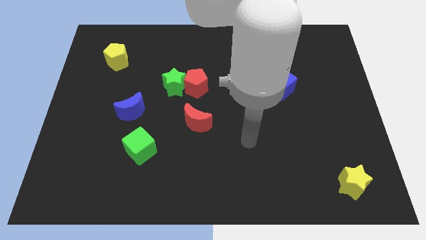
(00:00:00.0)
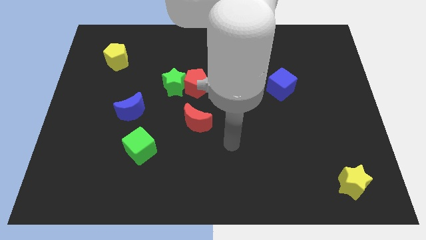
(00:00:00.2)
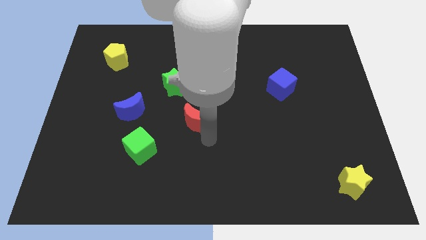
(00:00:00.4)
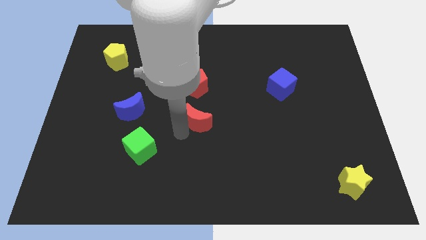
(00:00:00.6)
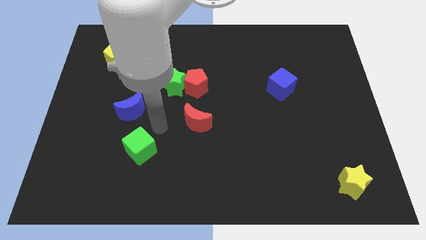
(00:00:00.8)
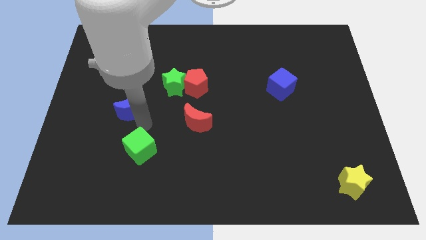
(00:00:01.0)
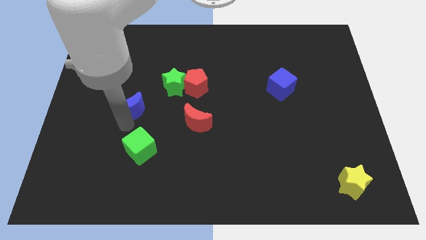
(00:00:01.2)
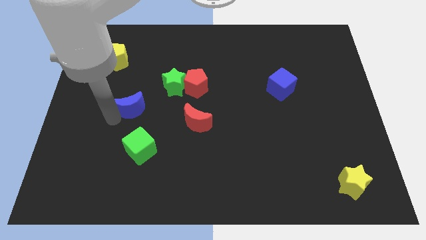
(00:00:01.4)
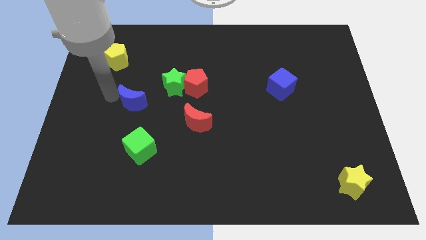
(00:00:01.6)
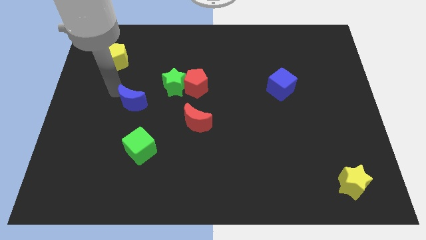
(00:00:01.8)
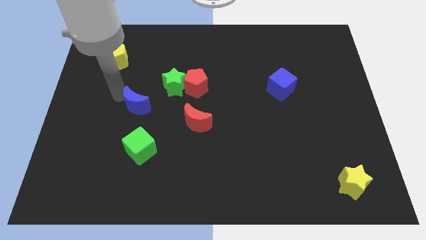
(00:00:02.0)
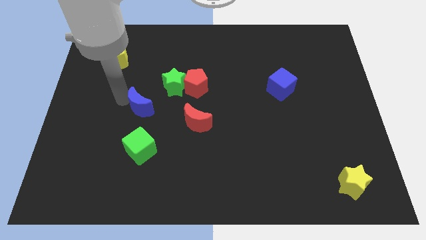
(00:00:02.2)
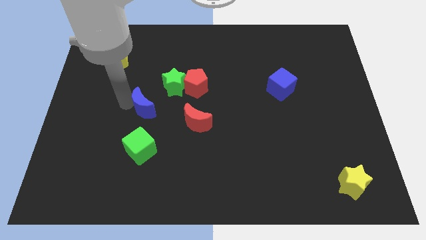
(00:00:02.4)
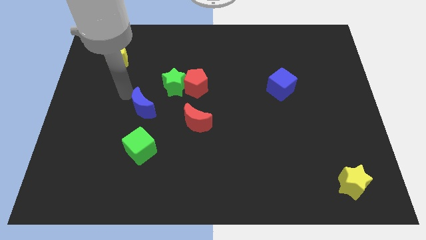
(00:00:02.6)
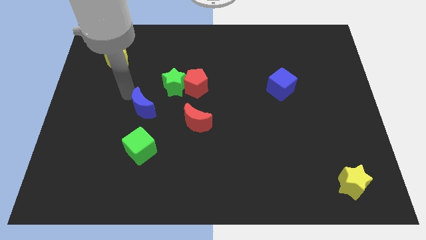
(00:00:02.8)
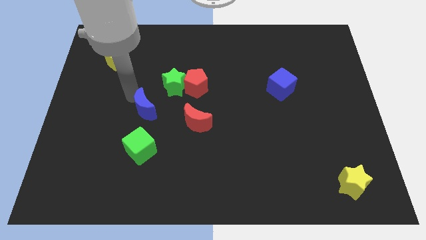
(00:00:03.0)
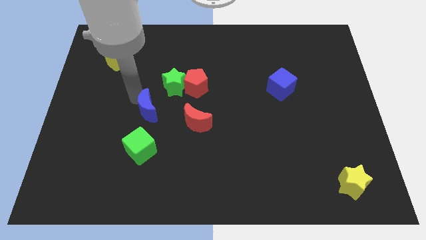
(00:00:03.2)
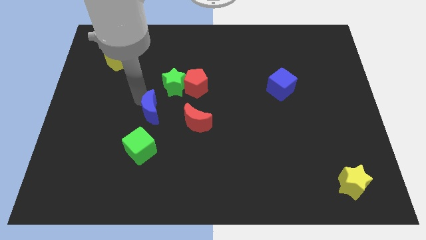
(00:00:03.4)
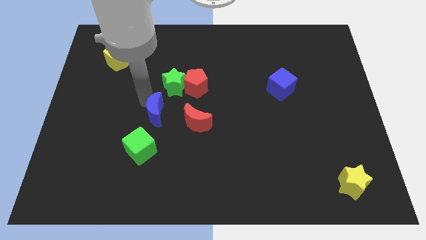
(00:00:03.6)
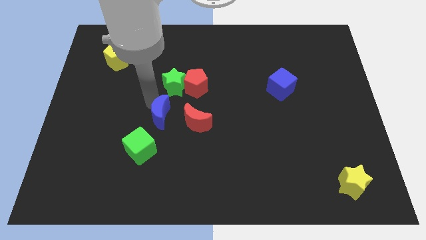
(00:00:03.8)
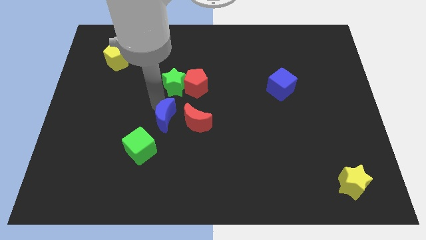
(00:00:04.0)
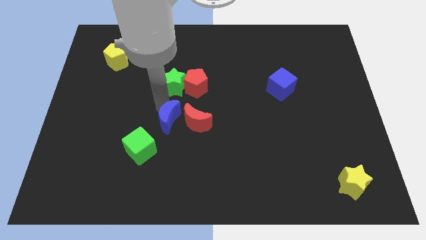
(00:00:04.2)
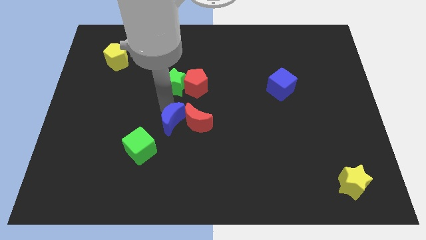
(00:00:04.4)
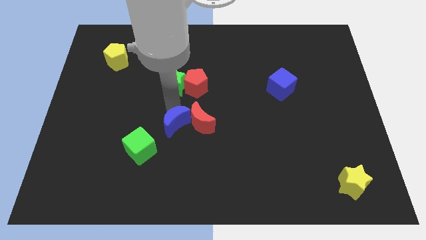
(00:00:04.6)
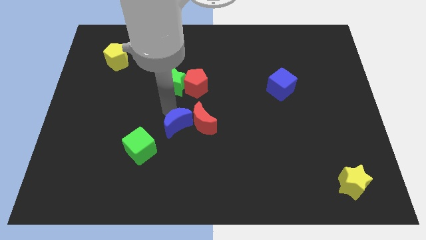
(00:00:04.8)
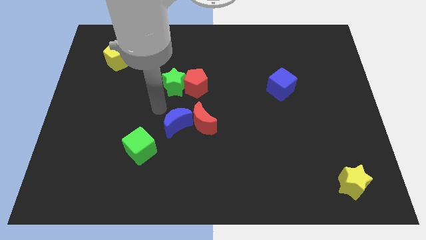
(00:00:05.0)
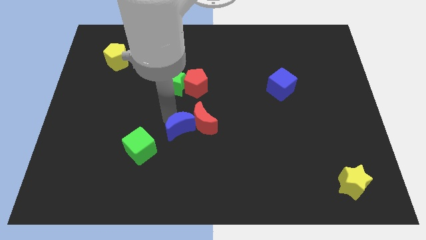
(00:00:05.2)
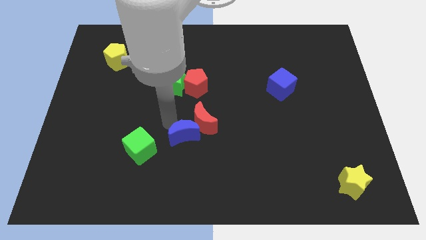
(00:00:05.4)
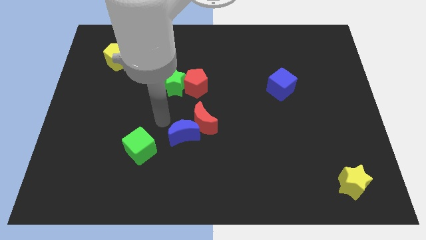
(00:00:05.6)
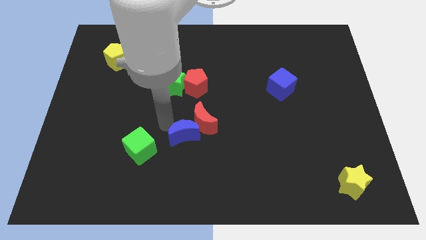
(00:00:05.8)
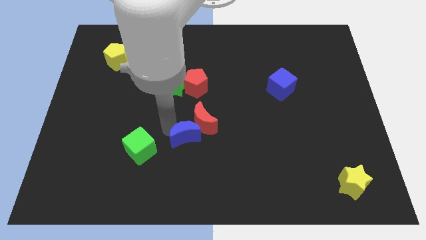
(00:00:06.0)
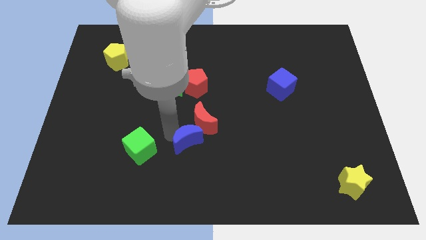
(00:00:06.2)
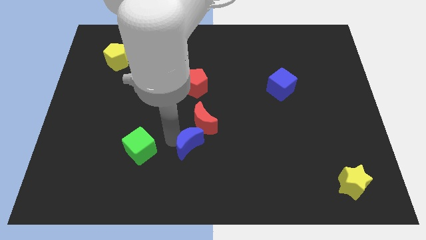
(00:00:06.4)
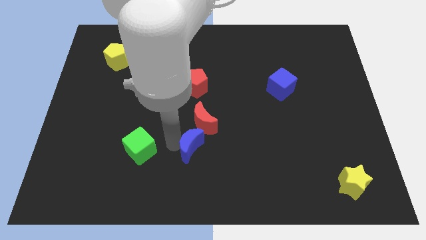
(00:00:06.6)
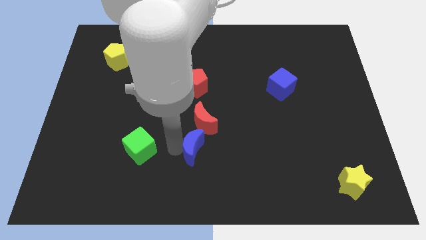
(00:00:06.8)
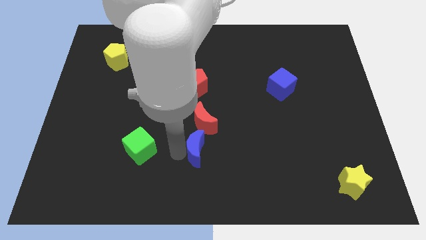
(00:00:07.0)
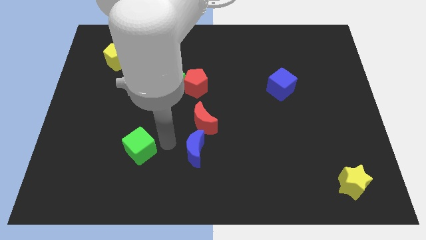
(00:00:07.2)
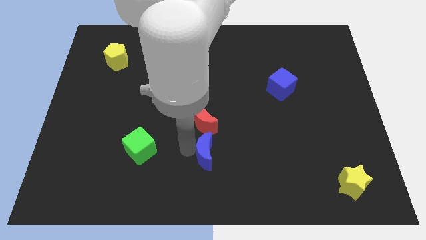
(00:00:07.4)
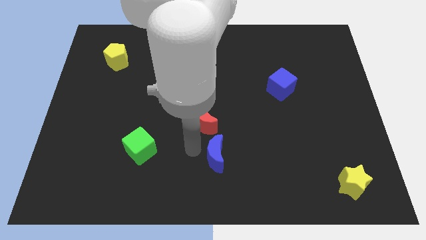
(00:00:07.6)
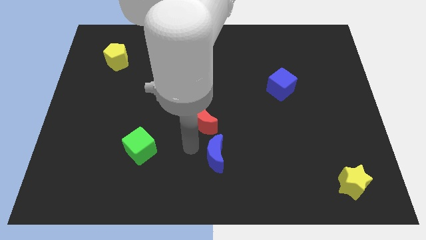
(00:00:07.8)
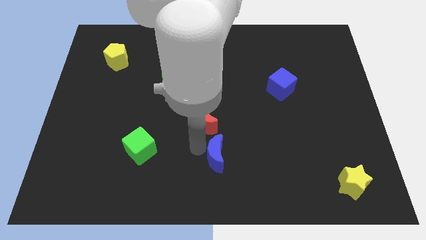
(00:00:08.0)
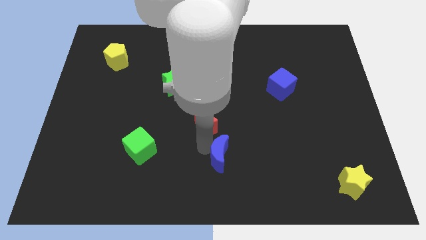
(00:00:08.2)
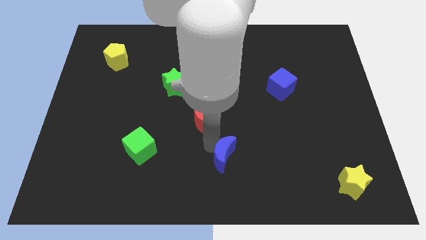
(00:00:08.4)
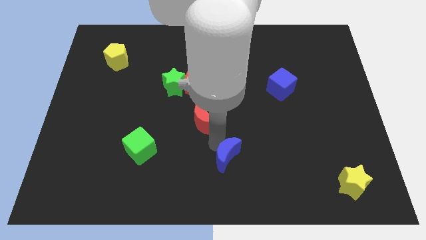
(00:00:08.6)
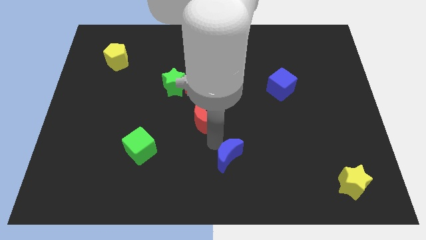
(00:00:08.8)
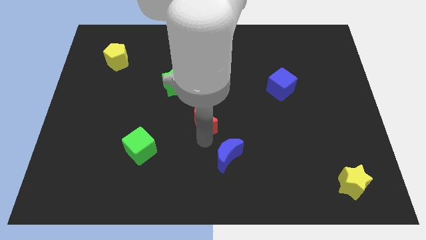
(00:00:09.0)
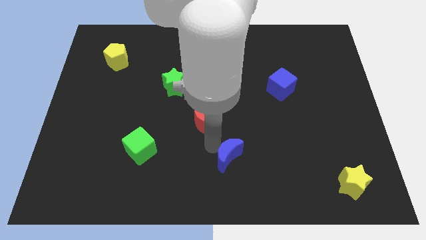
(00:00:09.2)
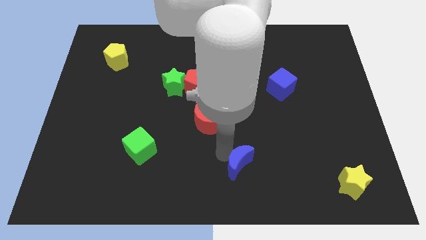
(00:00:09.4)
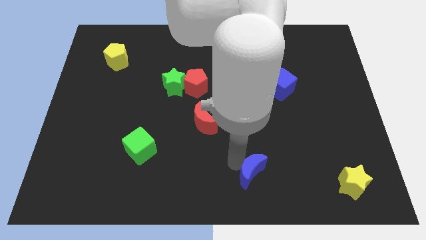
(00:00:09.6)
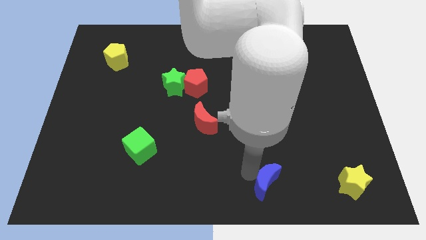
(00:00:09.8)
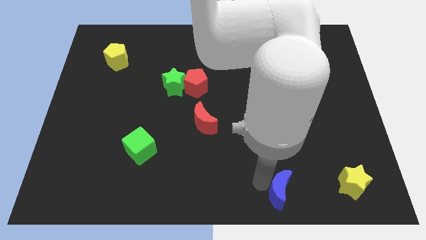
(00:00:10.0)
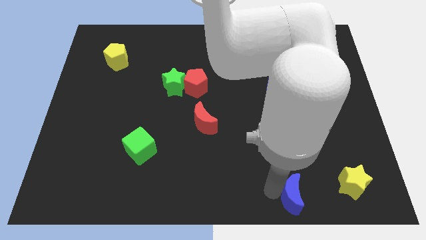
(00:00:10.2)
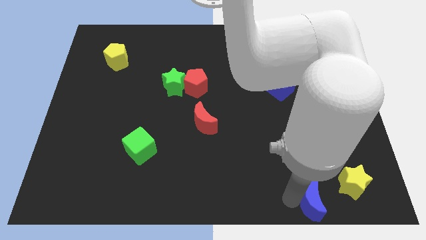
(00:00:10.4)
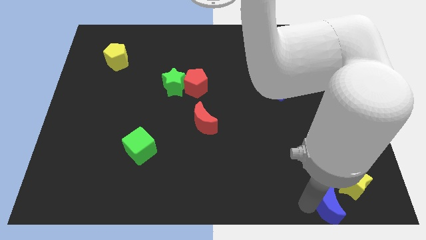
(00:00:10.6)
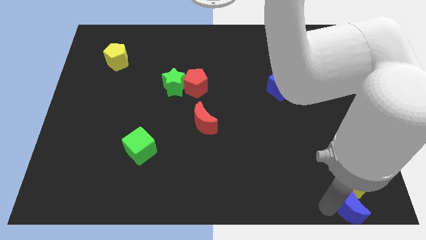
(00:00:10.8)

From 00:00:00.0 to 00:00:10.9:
slide the blue moon to the bottom right of the board

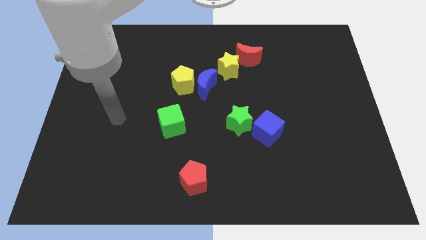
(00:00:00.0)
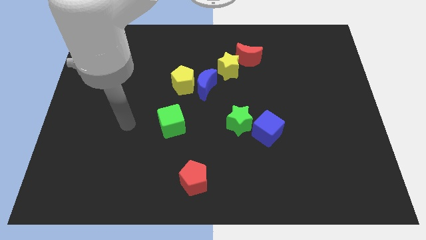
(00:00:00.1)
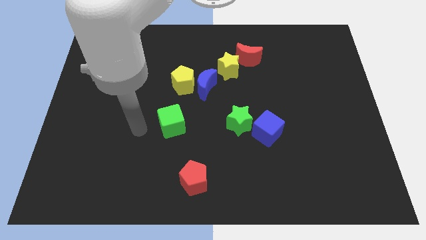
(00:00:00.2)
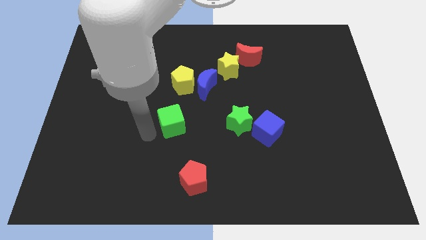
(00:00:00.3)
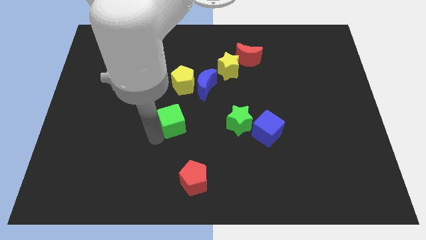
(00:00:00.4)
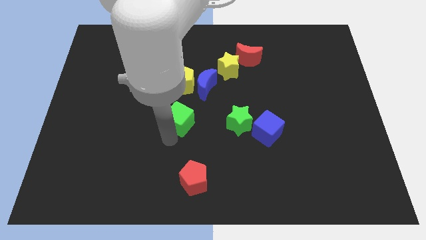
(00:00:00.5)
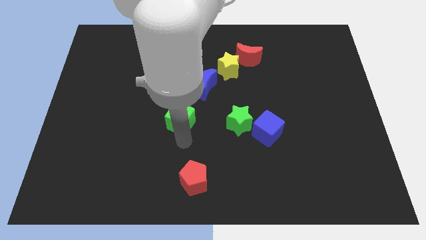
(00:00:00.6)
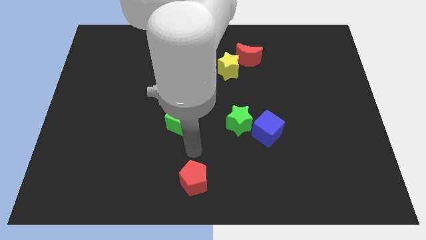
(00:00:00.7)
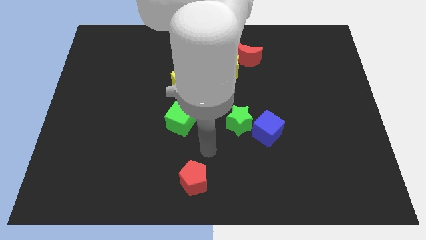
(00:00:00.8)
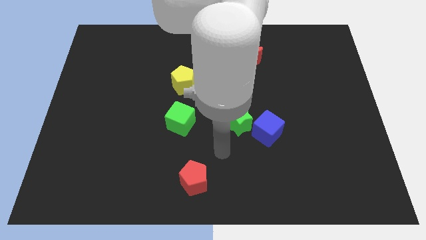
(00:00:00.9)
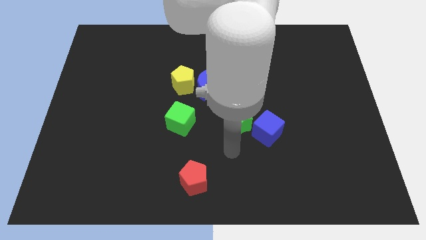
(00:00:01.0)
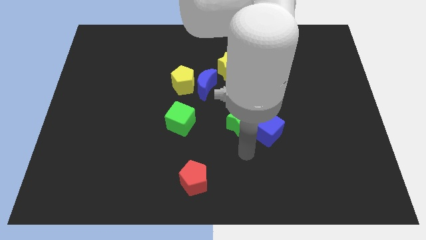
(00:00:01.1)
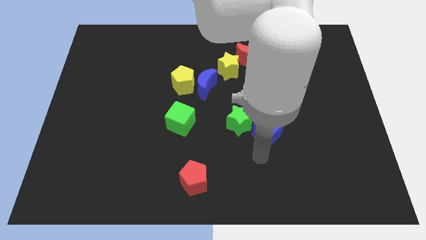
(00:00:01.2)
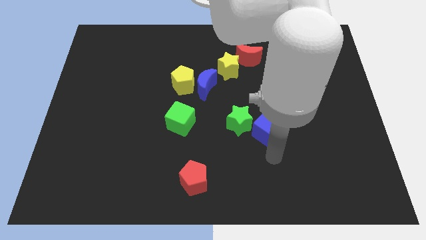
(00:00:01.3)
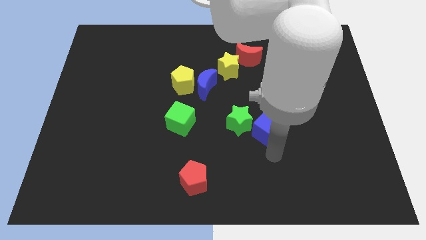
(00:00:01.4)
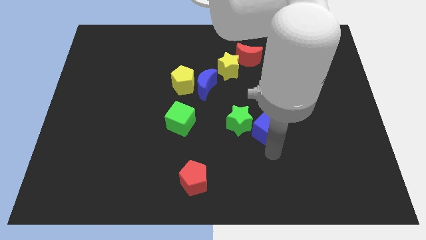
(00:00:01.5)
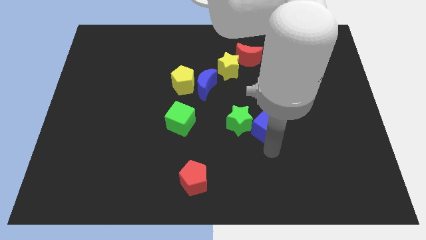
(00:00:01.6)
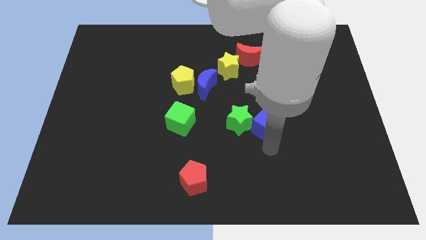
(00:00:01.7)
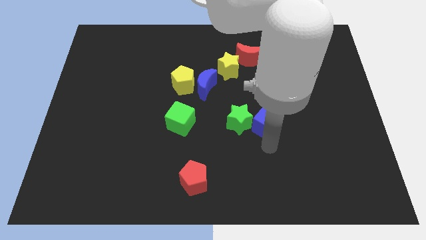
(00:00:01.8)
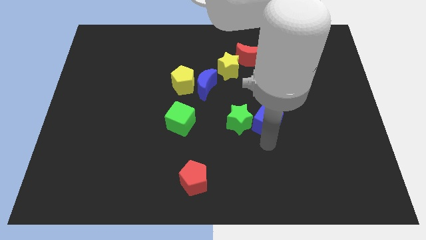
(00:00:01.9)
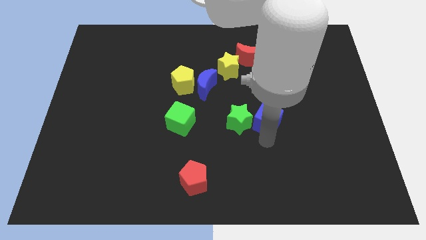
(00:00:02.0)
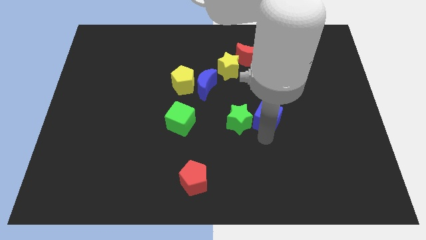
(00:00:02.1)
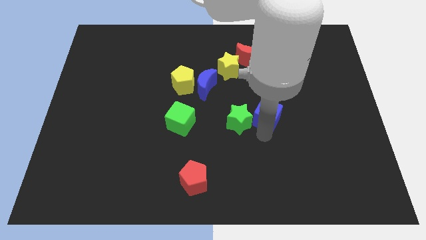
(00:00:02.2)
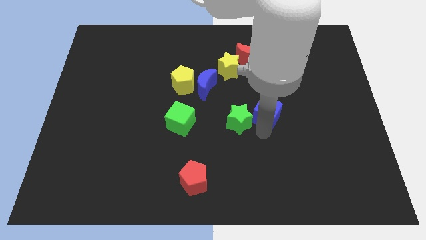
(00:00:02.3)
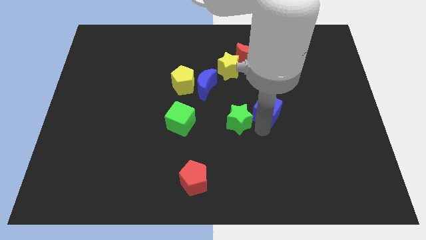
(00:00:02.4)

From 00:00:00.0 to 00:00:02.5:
put the blue cube to the center
